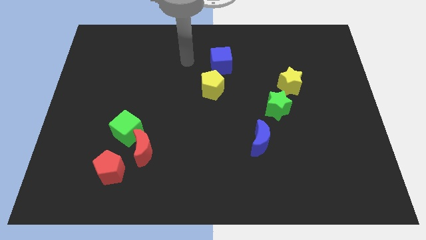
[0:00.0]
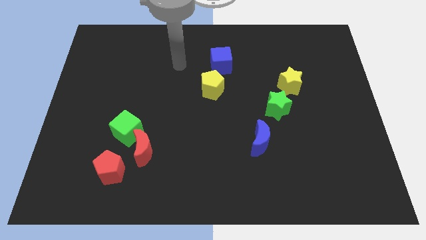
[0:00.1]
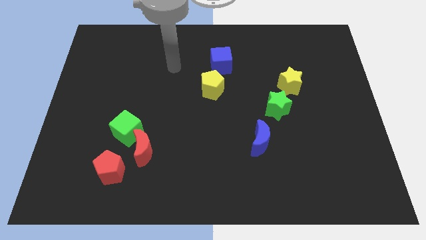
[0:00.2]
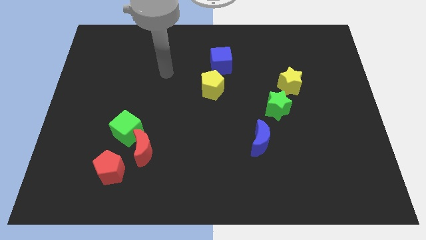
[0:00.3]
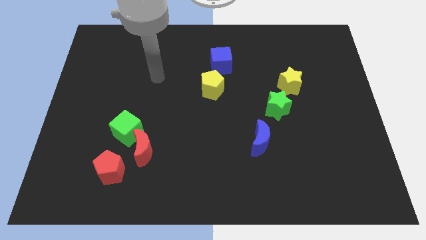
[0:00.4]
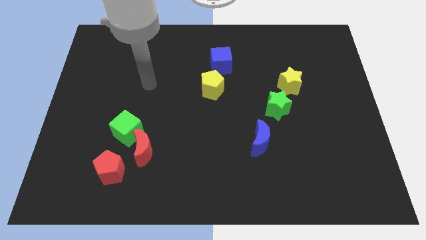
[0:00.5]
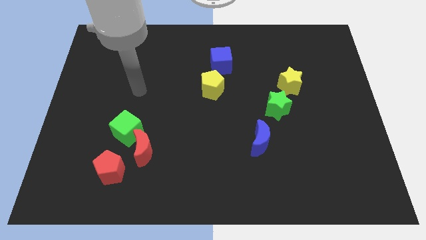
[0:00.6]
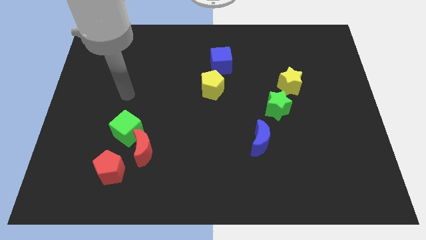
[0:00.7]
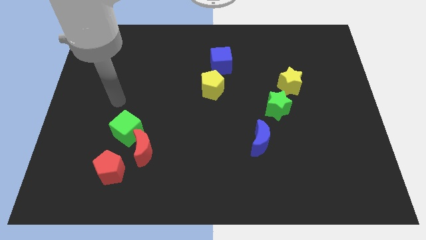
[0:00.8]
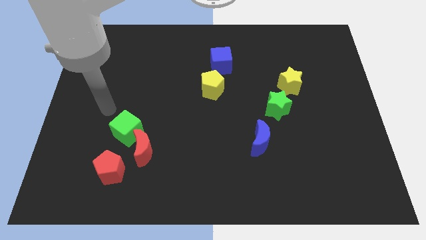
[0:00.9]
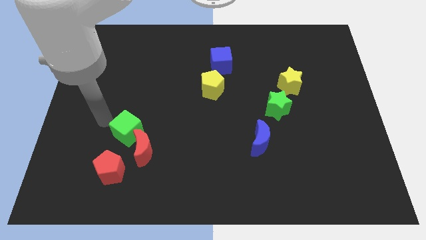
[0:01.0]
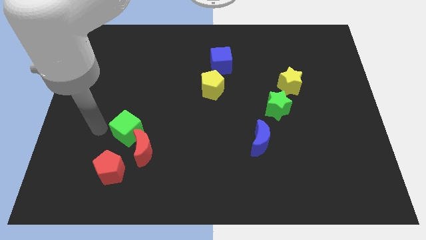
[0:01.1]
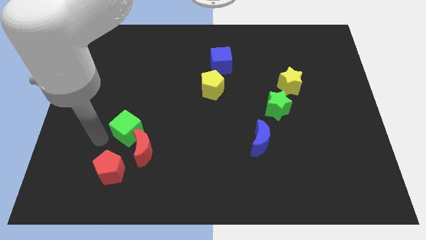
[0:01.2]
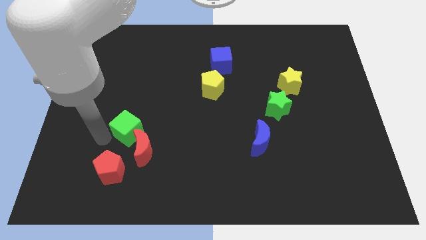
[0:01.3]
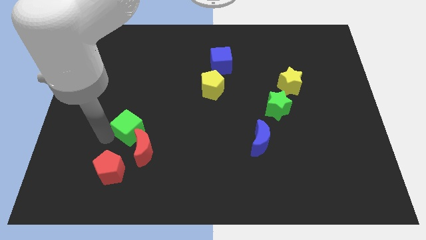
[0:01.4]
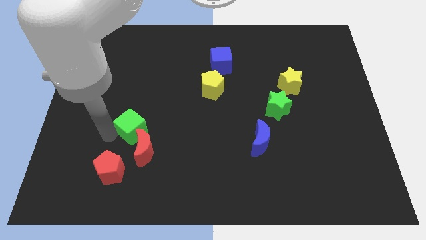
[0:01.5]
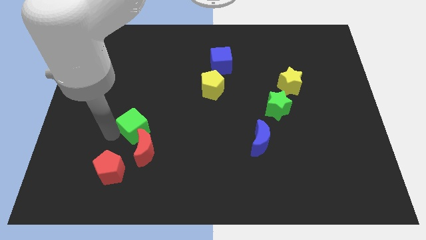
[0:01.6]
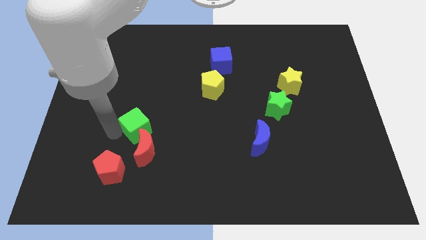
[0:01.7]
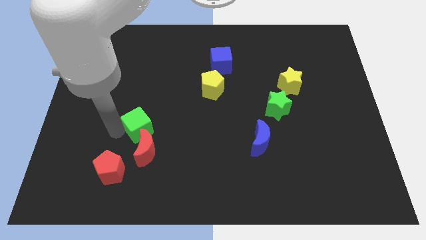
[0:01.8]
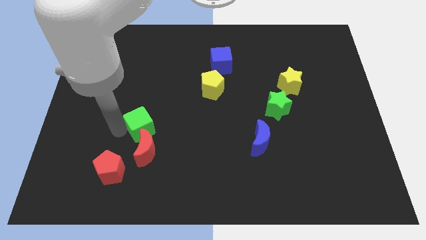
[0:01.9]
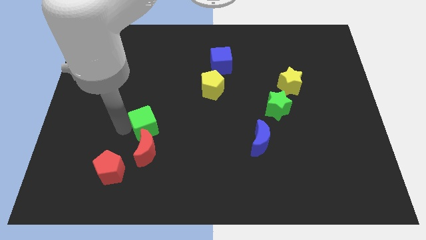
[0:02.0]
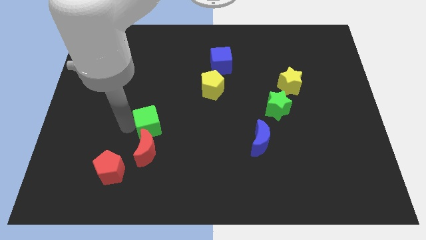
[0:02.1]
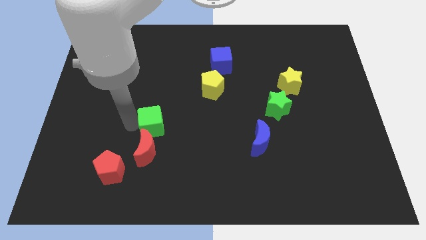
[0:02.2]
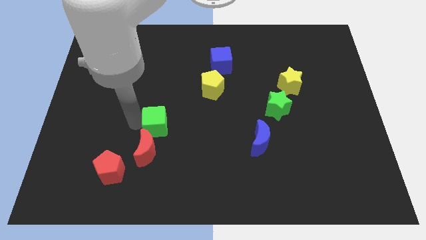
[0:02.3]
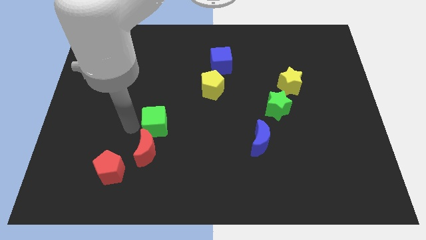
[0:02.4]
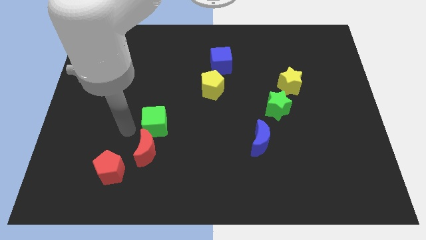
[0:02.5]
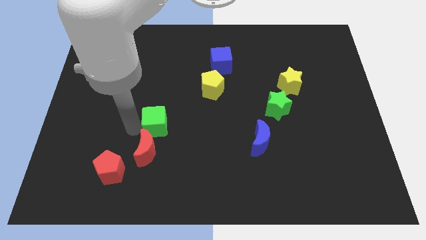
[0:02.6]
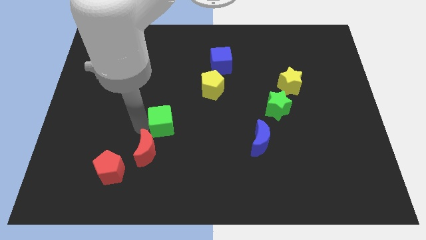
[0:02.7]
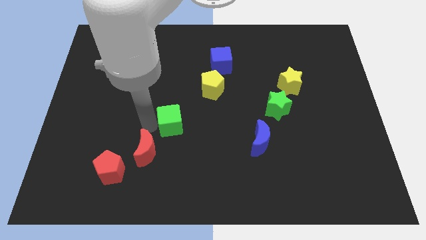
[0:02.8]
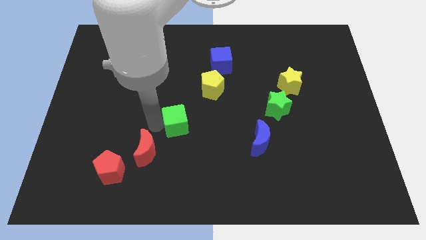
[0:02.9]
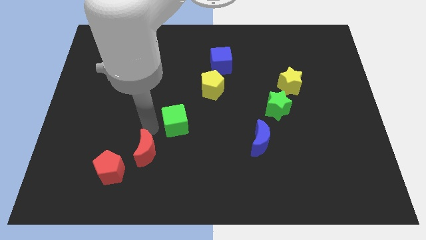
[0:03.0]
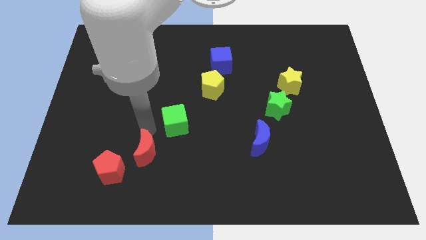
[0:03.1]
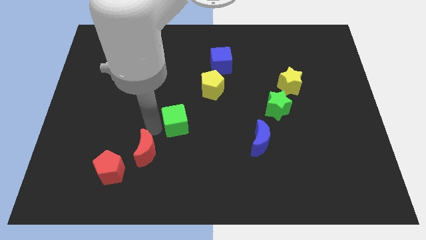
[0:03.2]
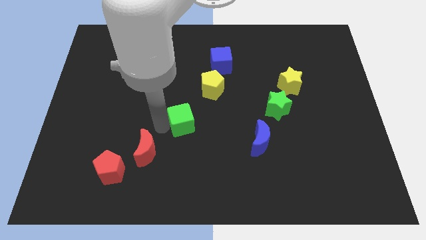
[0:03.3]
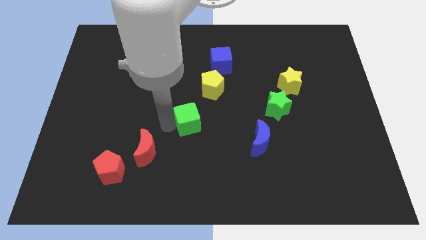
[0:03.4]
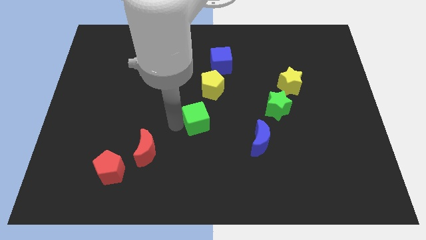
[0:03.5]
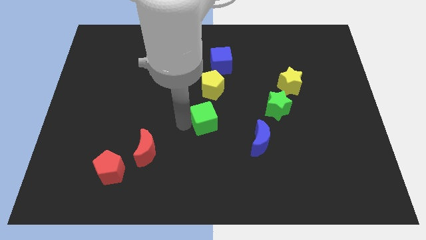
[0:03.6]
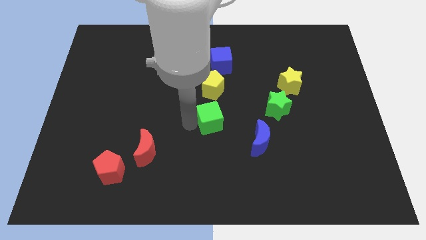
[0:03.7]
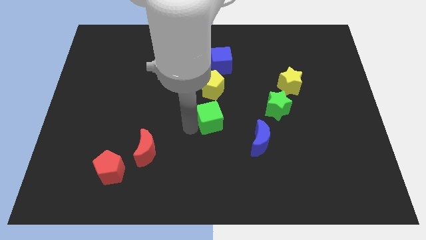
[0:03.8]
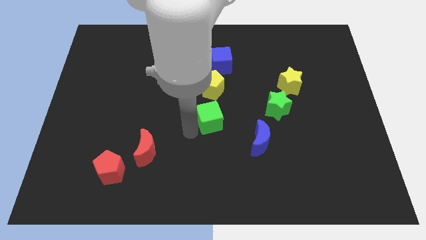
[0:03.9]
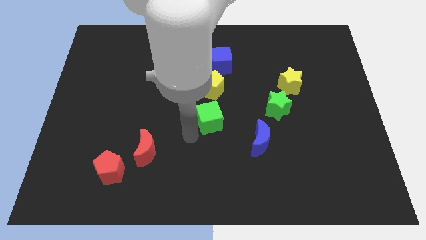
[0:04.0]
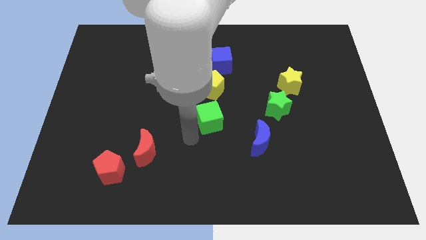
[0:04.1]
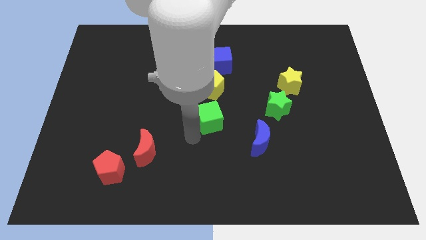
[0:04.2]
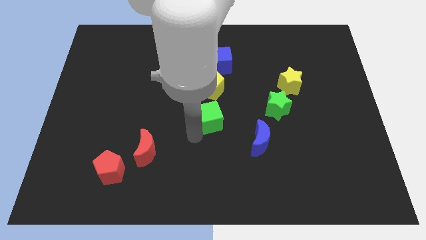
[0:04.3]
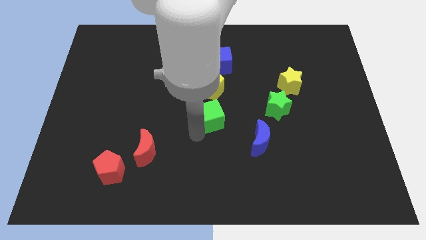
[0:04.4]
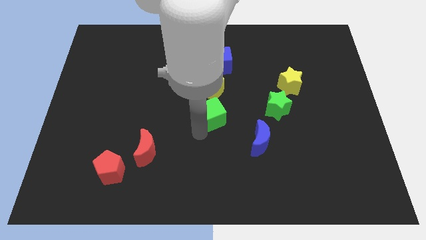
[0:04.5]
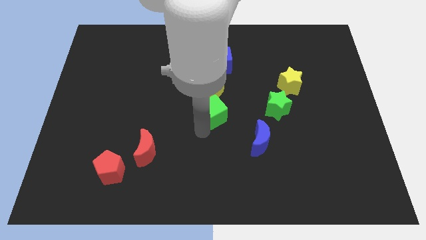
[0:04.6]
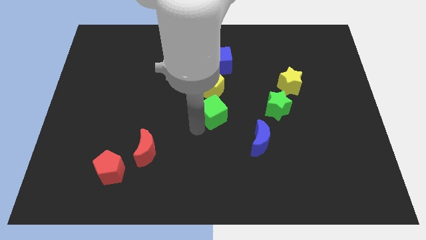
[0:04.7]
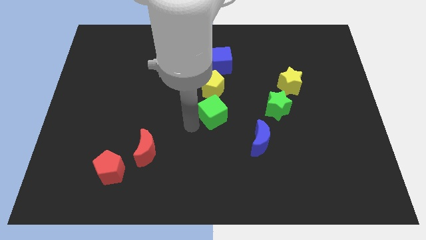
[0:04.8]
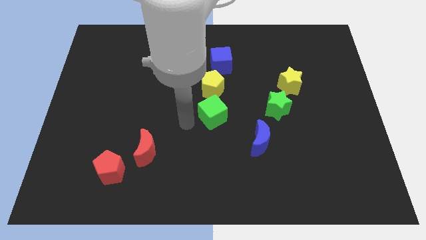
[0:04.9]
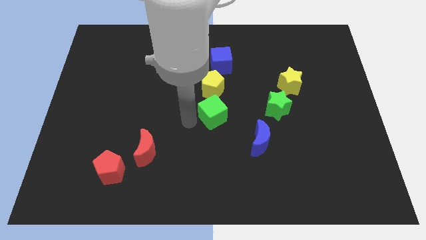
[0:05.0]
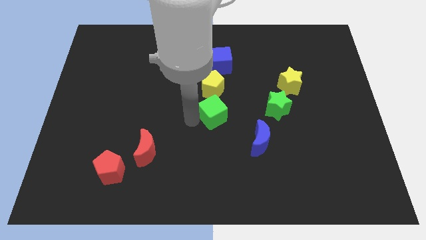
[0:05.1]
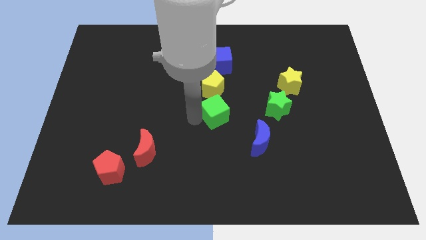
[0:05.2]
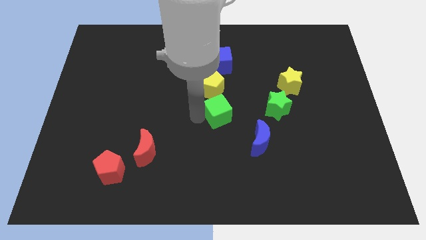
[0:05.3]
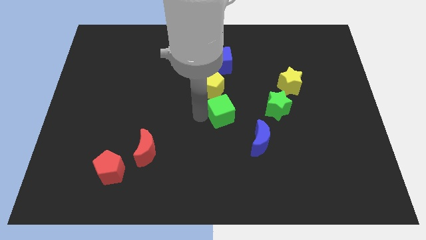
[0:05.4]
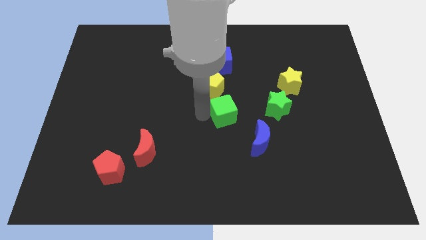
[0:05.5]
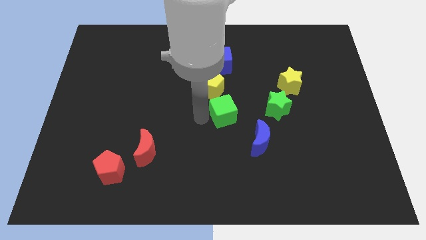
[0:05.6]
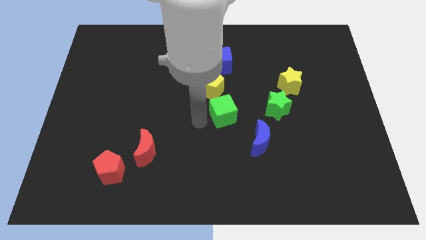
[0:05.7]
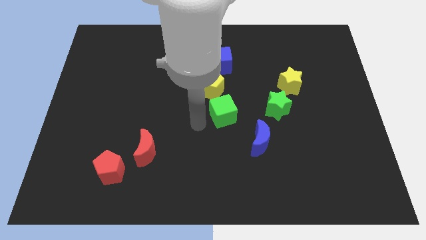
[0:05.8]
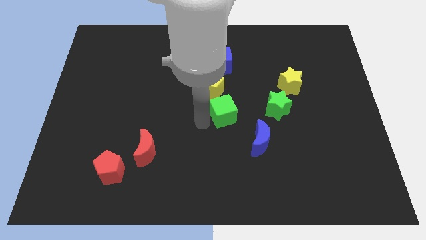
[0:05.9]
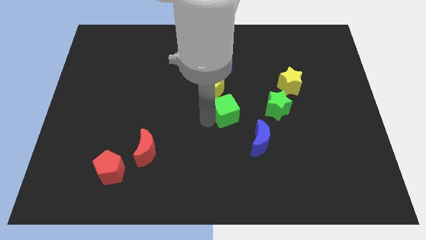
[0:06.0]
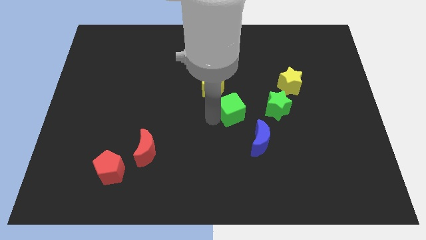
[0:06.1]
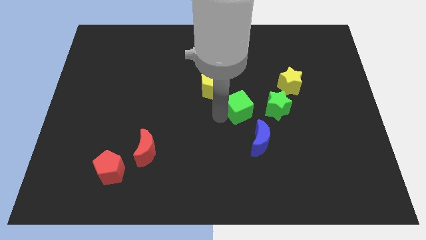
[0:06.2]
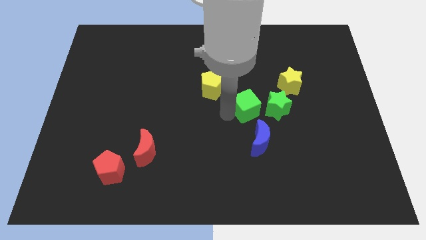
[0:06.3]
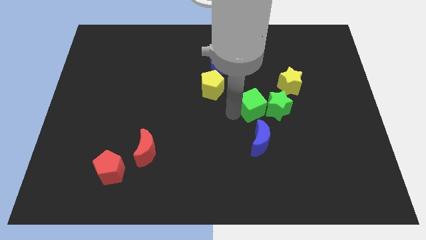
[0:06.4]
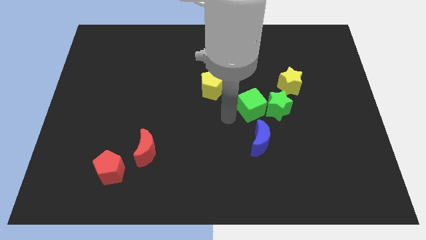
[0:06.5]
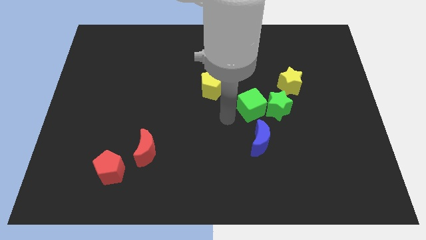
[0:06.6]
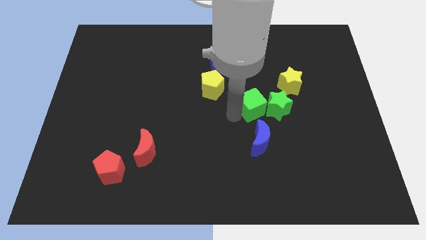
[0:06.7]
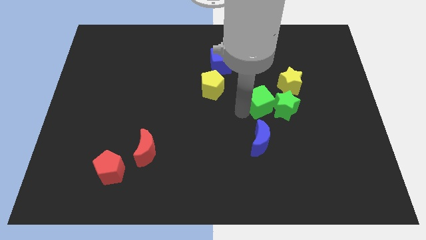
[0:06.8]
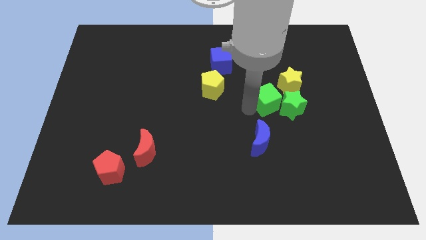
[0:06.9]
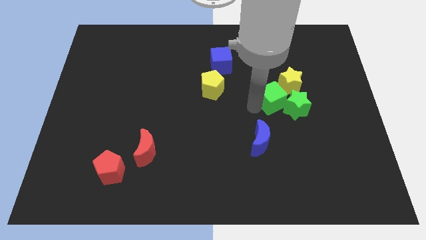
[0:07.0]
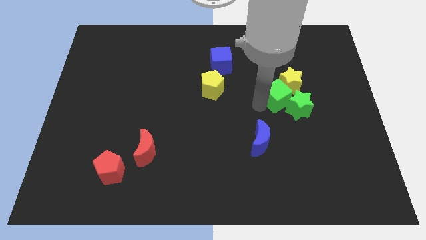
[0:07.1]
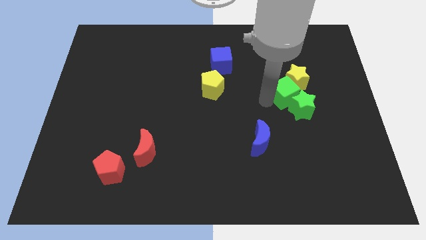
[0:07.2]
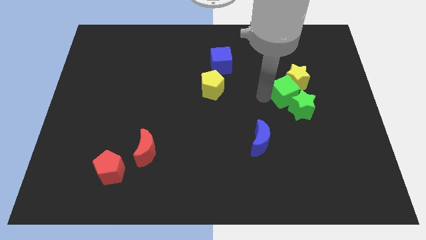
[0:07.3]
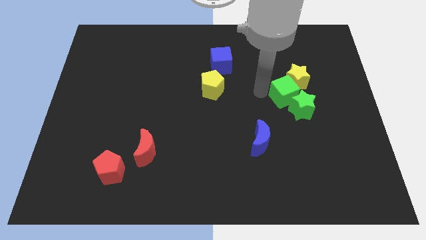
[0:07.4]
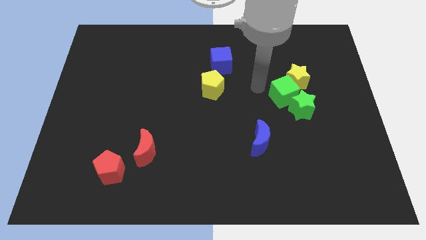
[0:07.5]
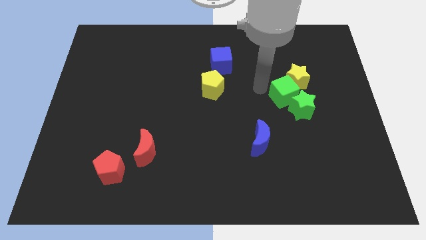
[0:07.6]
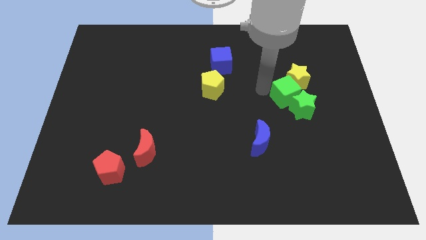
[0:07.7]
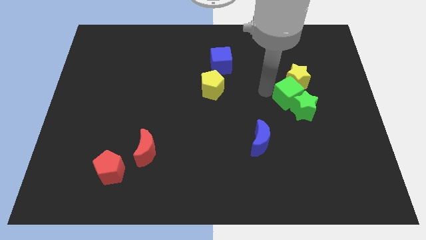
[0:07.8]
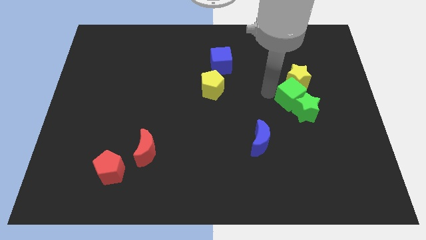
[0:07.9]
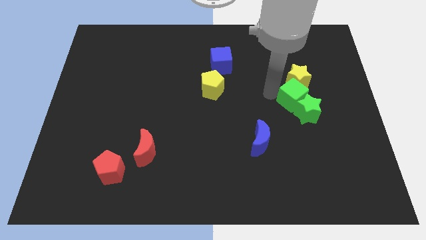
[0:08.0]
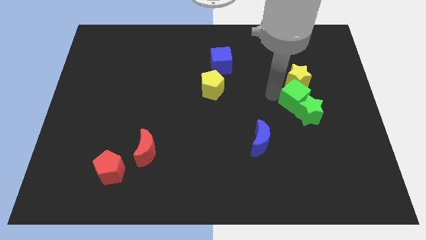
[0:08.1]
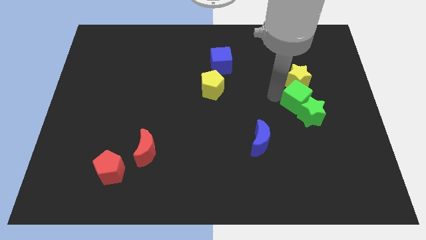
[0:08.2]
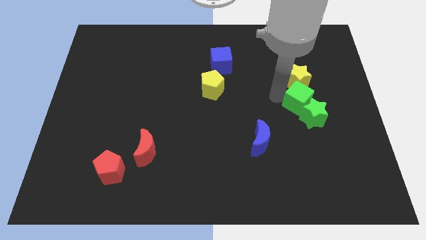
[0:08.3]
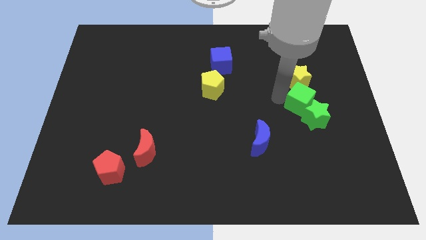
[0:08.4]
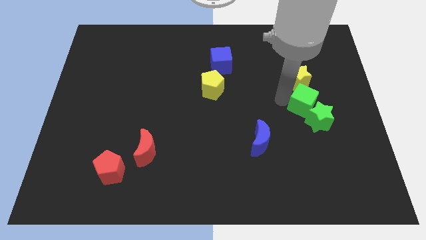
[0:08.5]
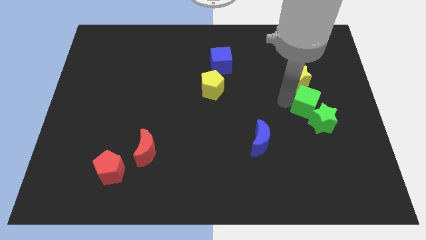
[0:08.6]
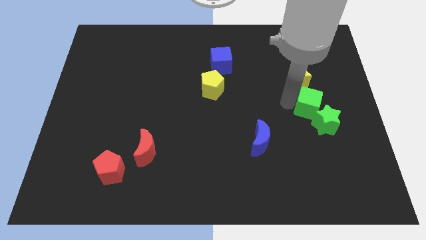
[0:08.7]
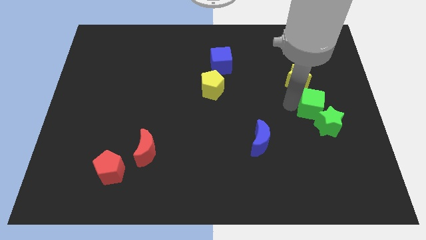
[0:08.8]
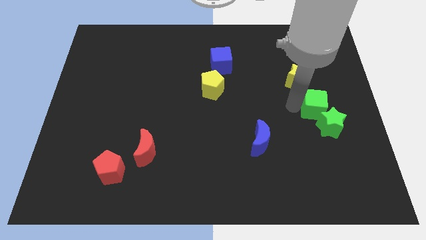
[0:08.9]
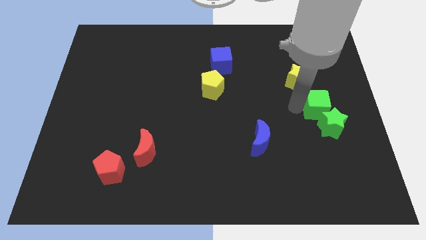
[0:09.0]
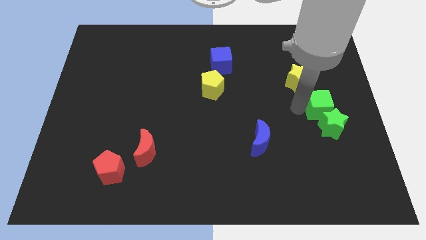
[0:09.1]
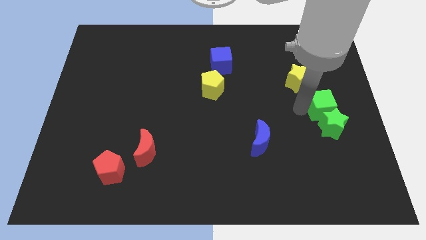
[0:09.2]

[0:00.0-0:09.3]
move the green cube to the center right
